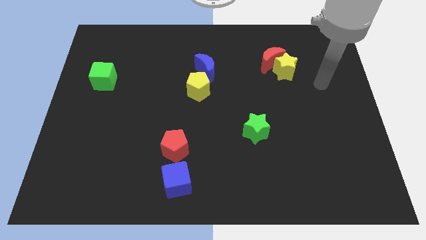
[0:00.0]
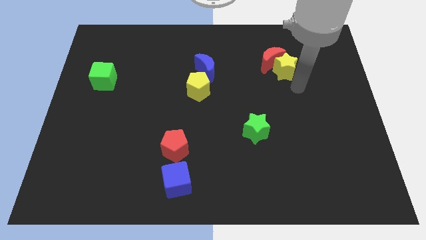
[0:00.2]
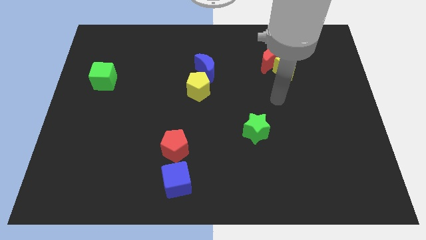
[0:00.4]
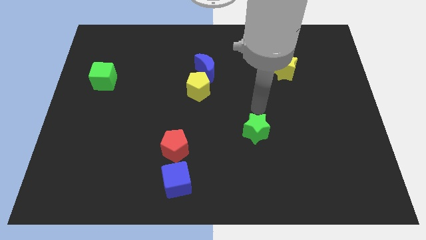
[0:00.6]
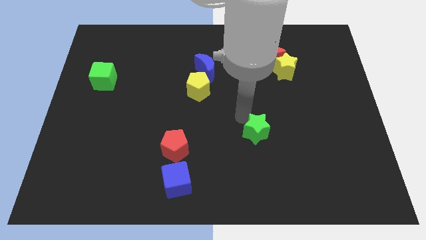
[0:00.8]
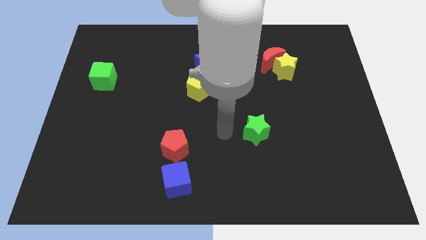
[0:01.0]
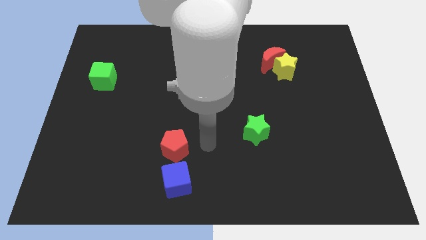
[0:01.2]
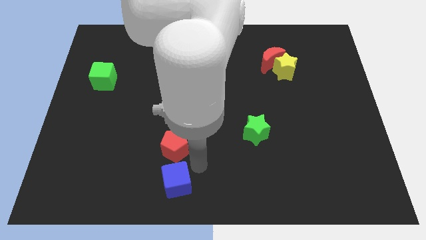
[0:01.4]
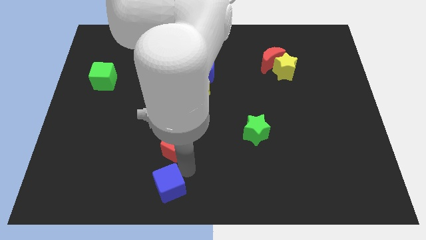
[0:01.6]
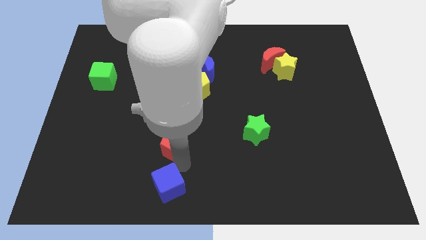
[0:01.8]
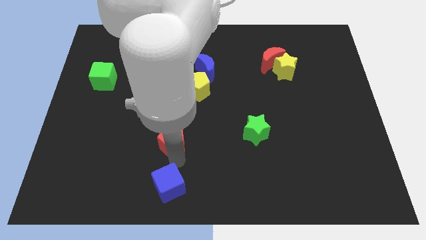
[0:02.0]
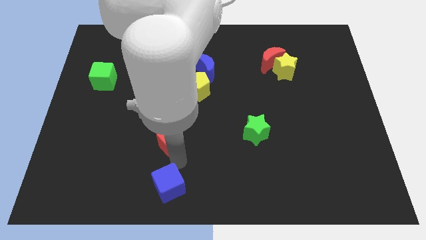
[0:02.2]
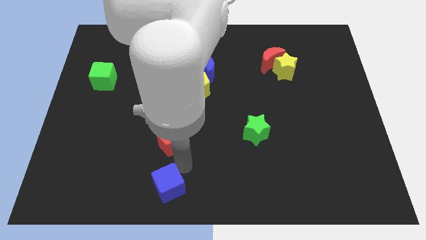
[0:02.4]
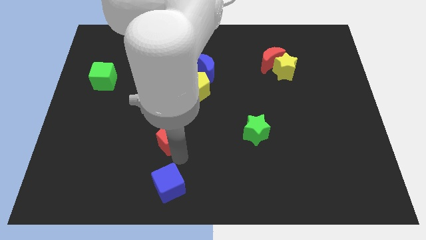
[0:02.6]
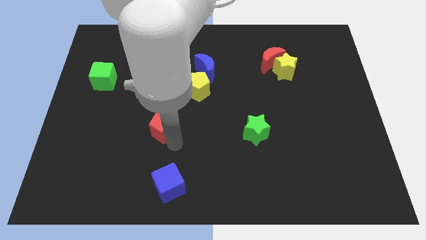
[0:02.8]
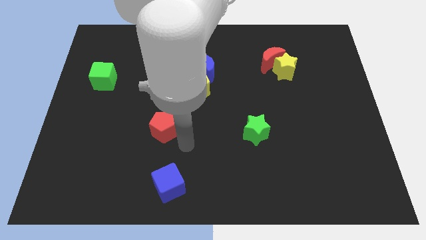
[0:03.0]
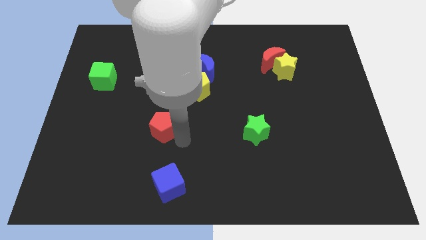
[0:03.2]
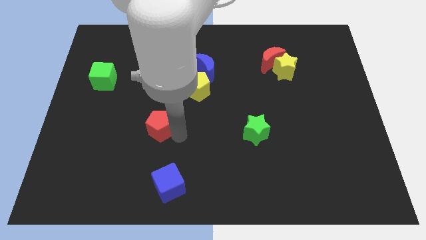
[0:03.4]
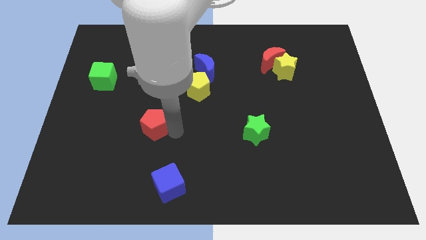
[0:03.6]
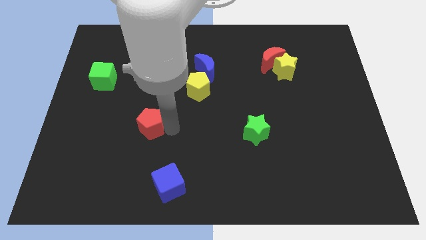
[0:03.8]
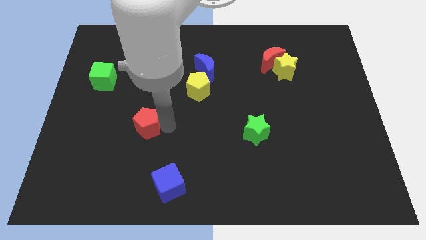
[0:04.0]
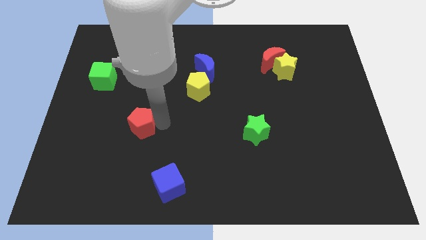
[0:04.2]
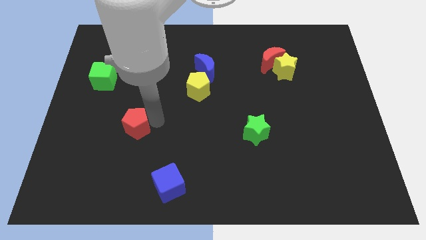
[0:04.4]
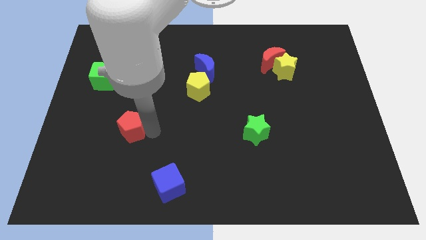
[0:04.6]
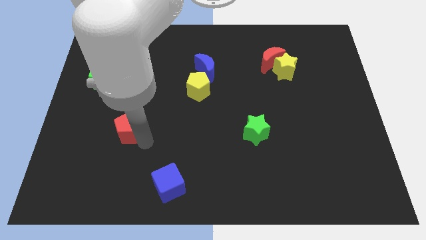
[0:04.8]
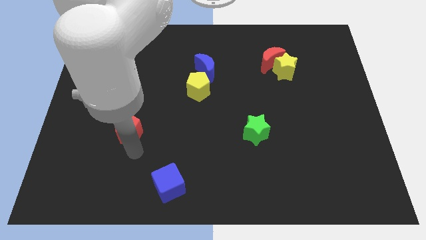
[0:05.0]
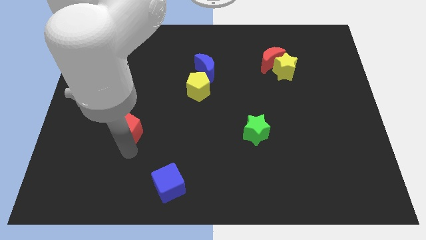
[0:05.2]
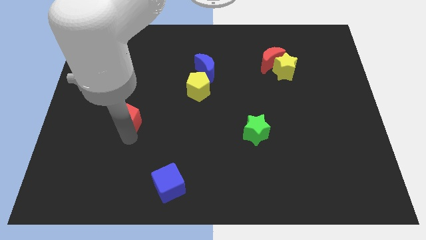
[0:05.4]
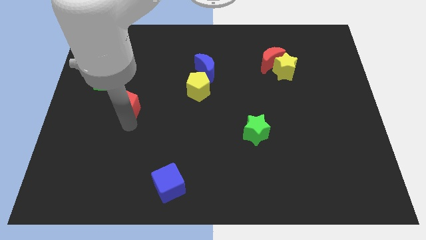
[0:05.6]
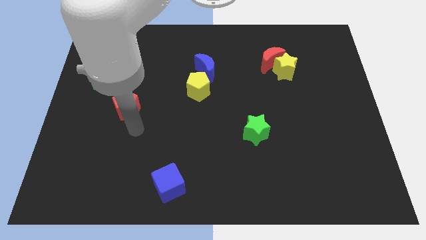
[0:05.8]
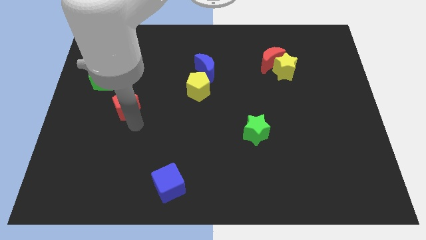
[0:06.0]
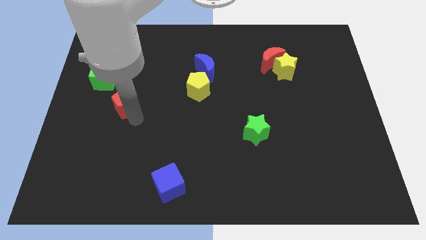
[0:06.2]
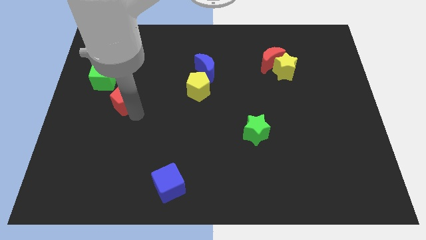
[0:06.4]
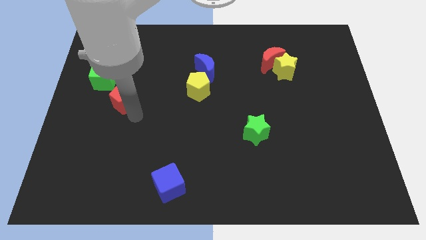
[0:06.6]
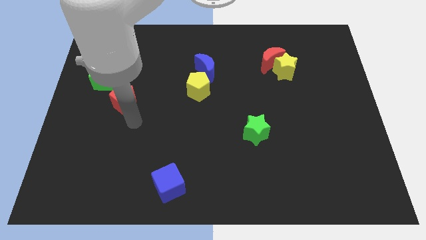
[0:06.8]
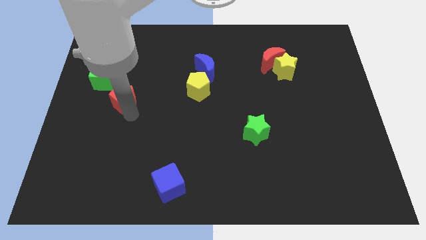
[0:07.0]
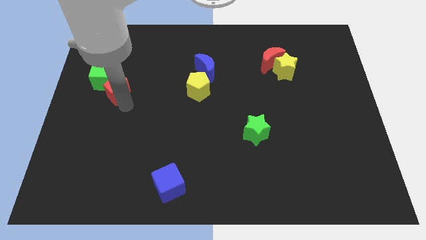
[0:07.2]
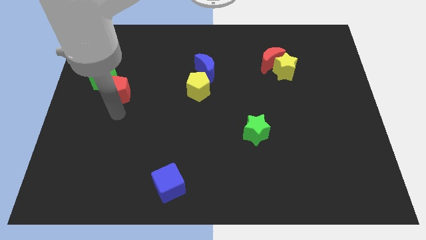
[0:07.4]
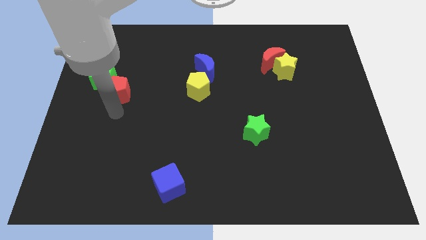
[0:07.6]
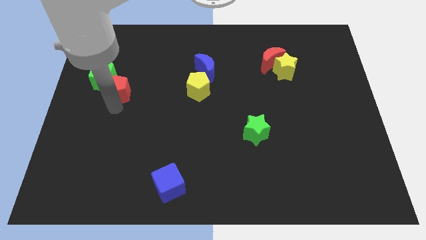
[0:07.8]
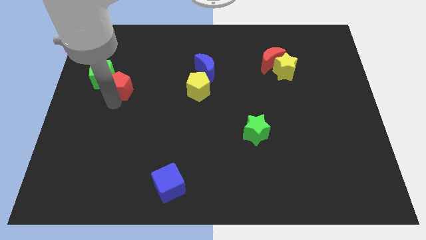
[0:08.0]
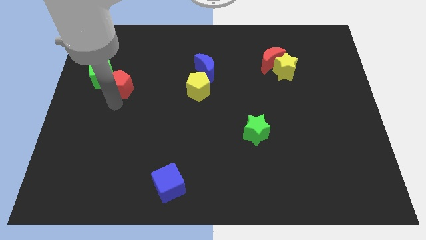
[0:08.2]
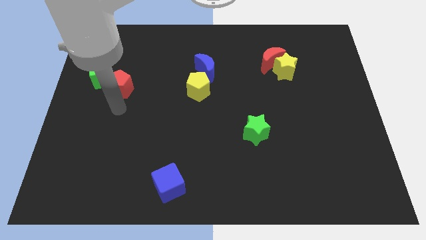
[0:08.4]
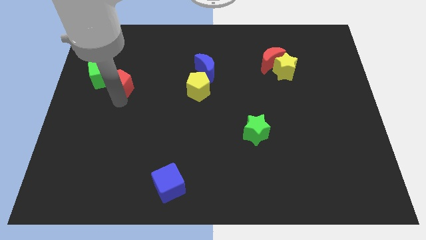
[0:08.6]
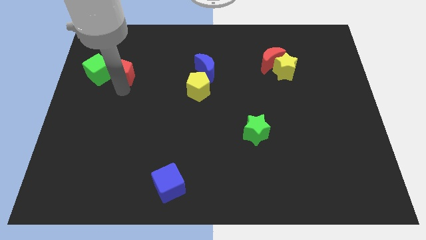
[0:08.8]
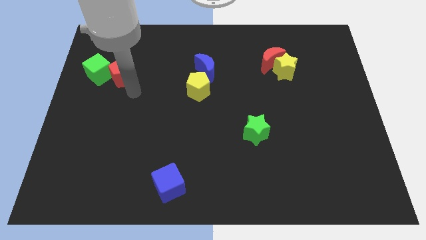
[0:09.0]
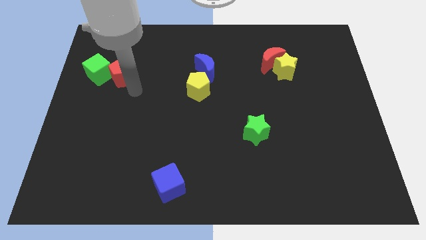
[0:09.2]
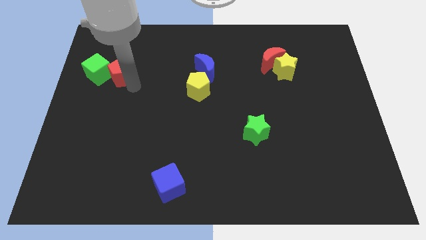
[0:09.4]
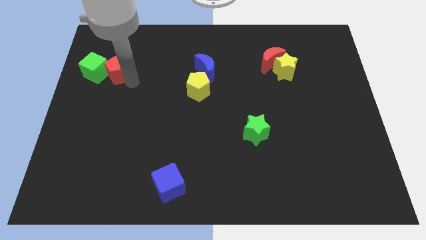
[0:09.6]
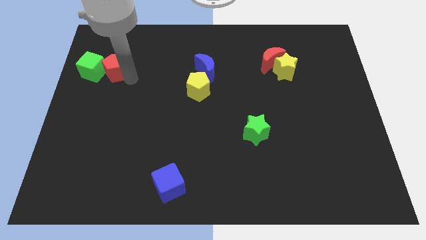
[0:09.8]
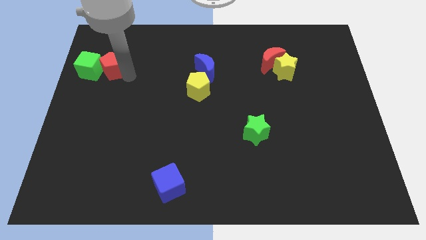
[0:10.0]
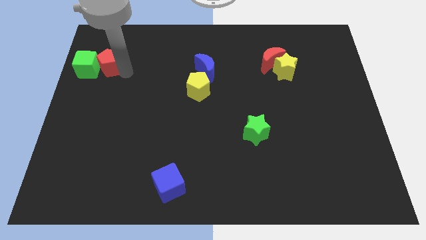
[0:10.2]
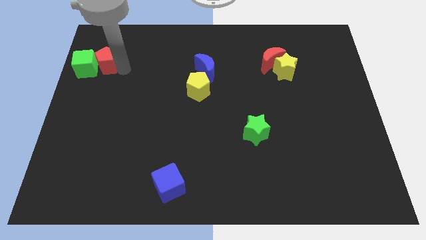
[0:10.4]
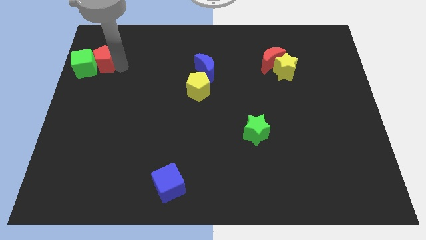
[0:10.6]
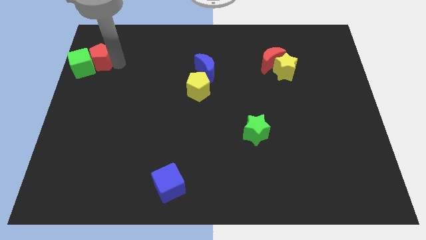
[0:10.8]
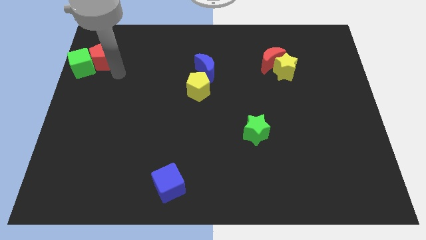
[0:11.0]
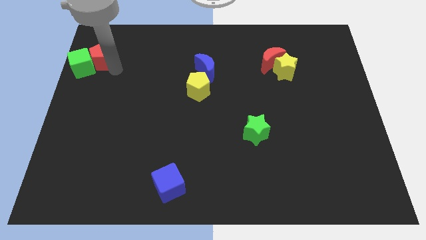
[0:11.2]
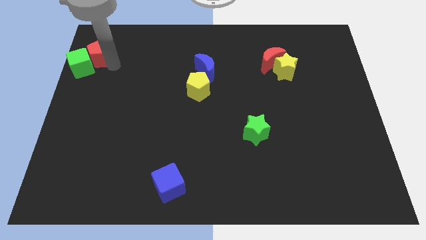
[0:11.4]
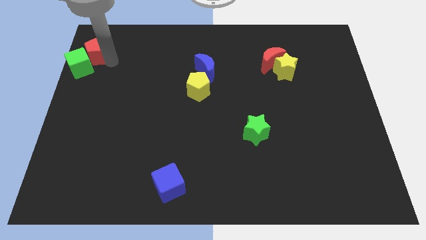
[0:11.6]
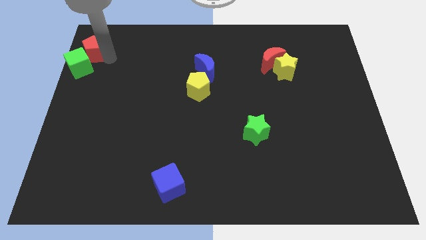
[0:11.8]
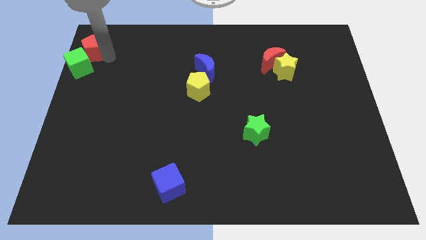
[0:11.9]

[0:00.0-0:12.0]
move the red pentagon to the upper left corner
